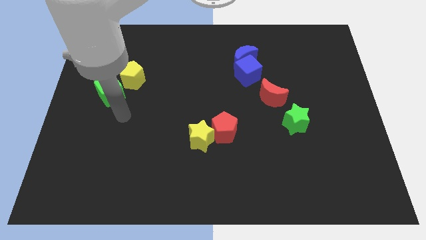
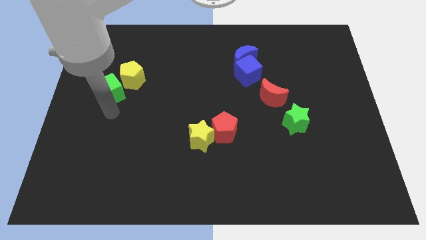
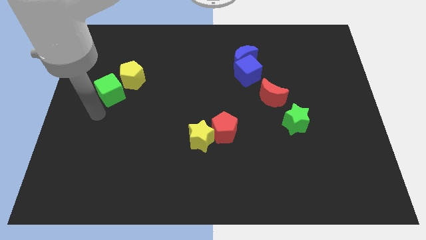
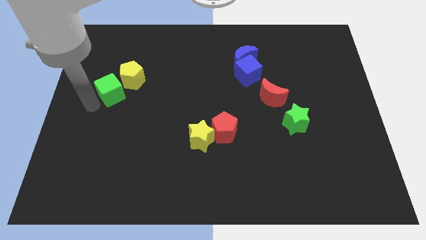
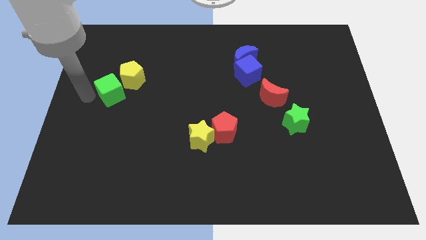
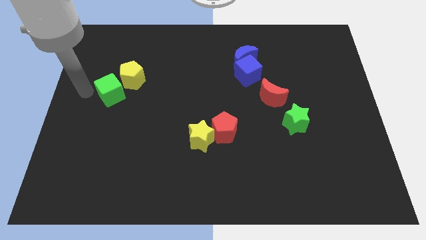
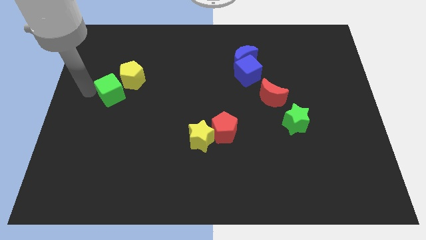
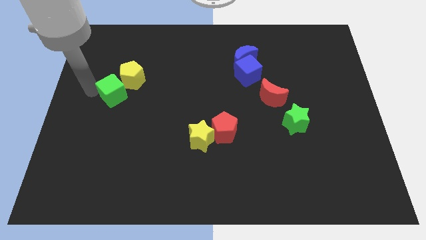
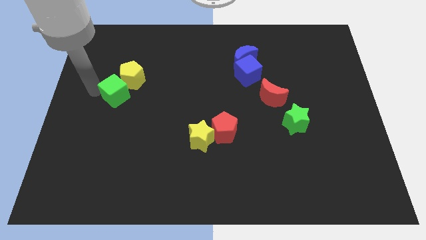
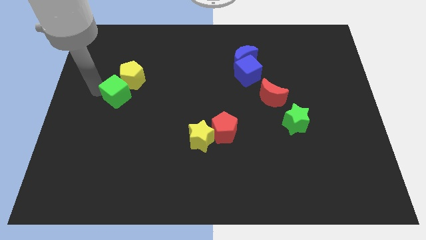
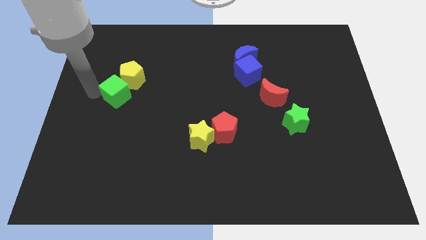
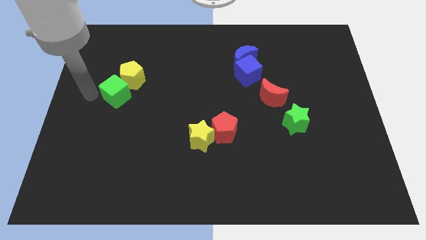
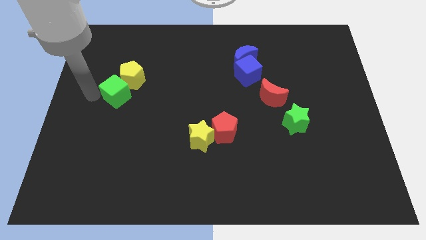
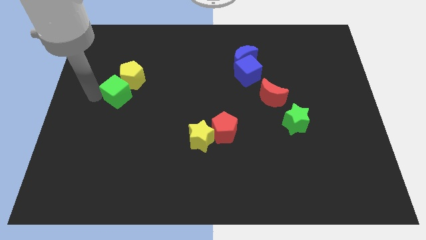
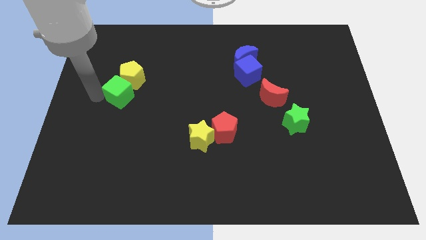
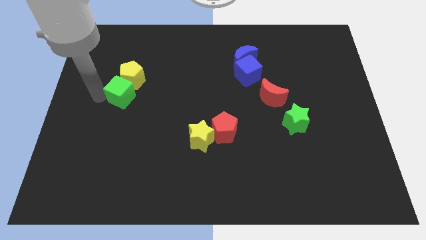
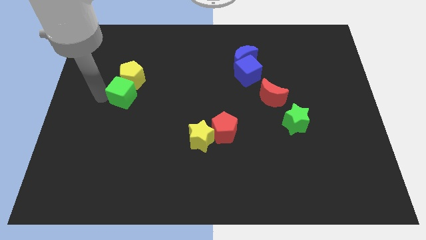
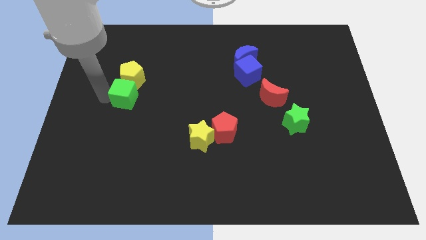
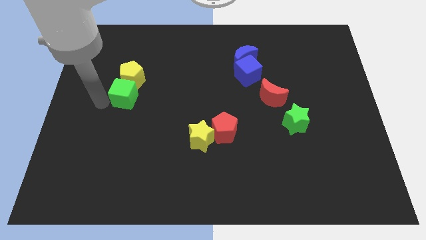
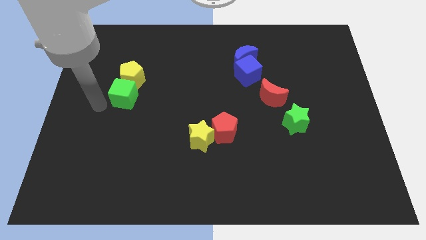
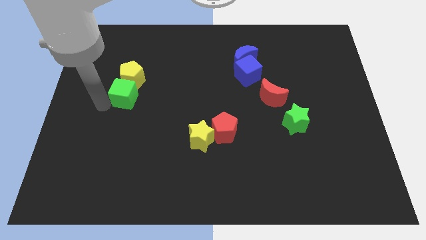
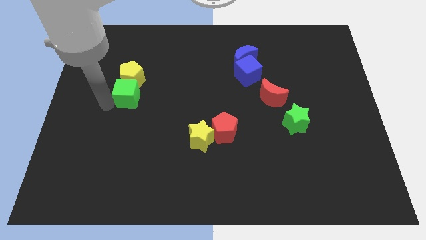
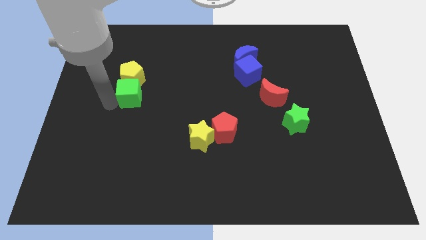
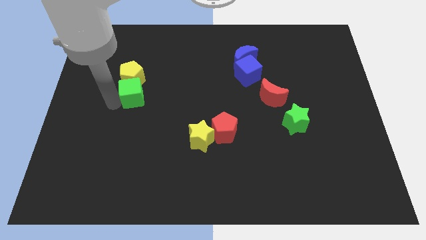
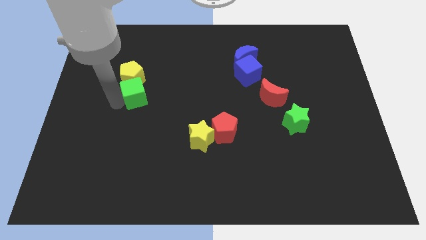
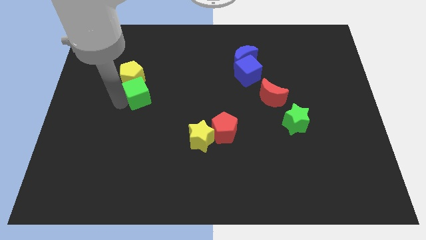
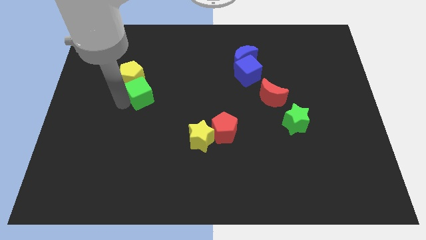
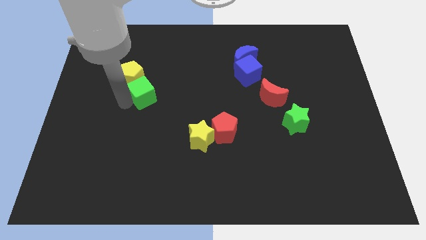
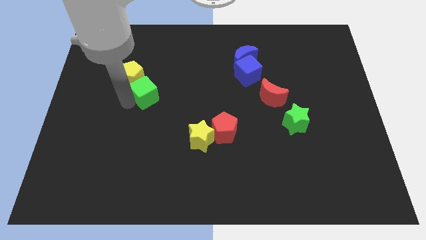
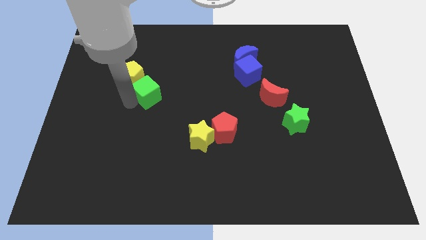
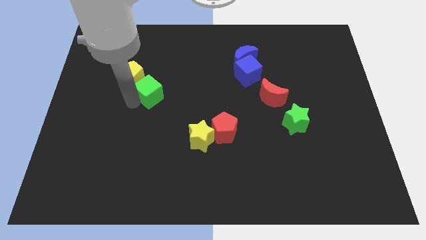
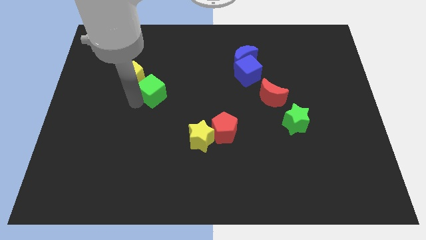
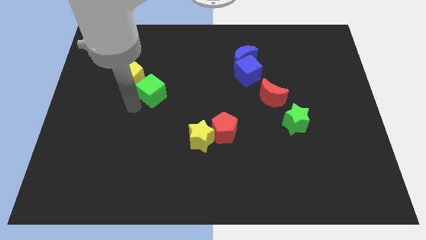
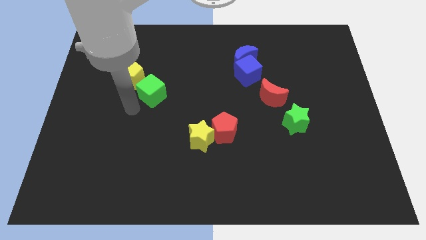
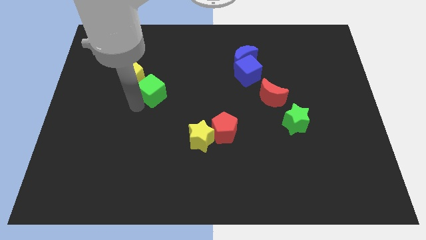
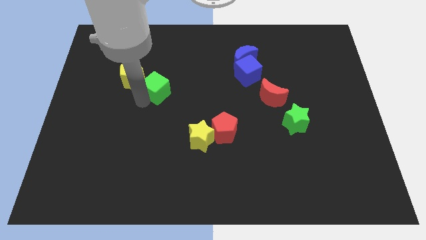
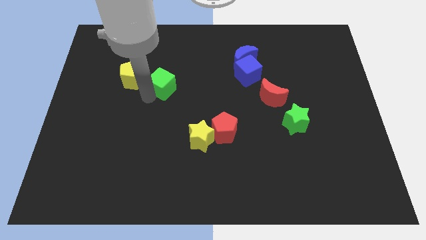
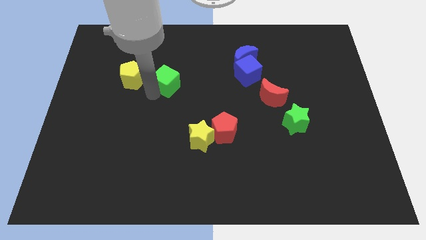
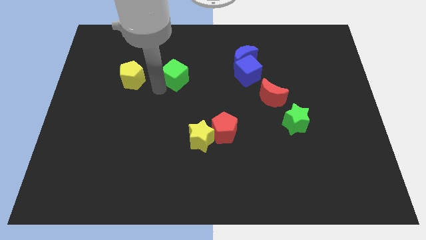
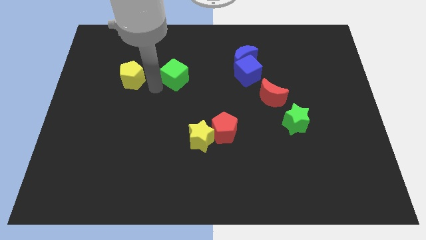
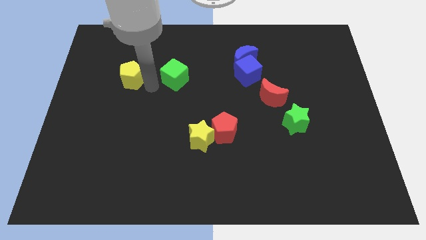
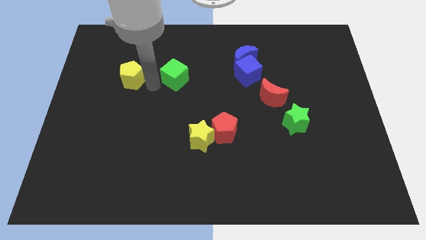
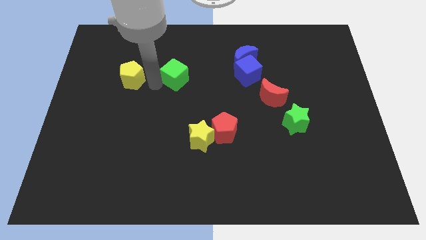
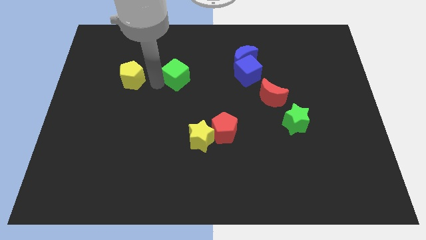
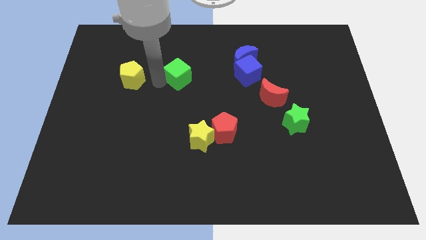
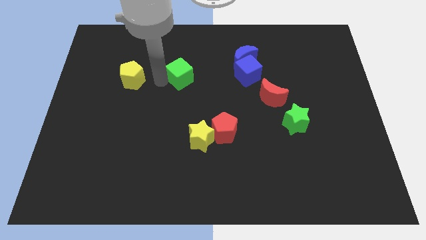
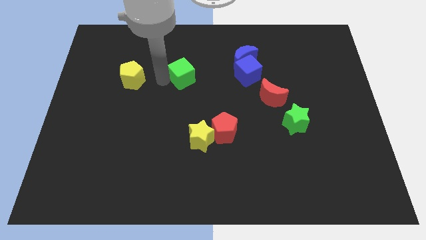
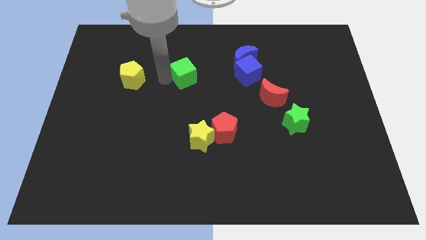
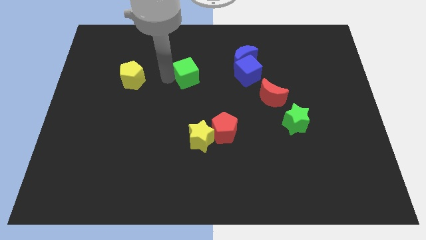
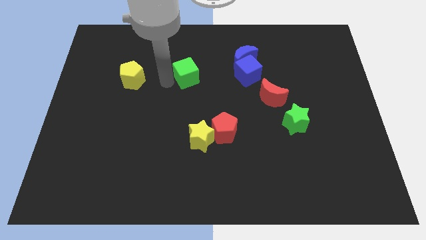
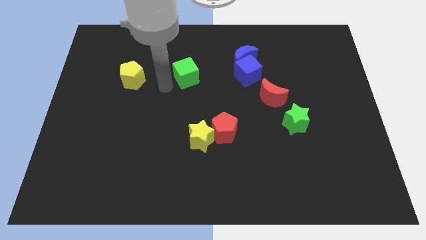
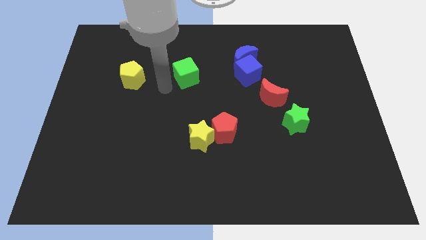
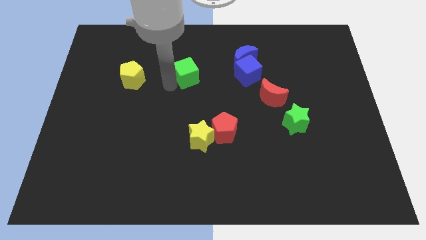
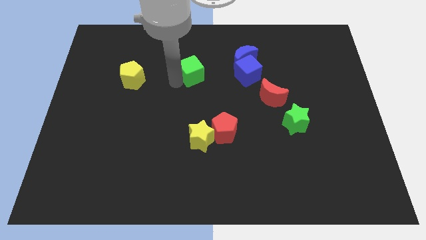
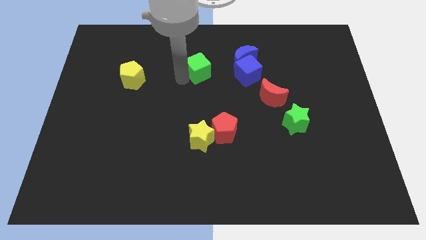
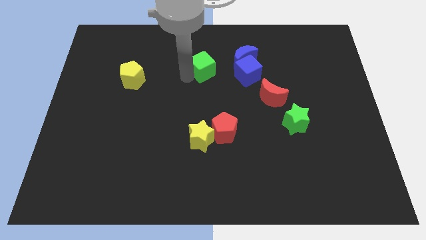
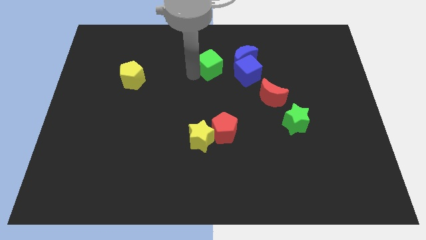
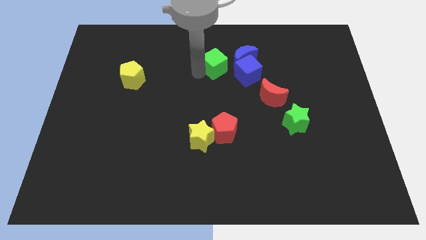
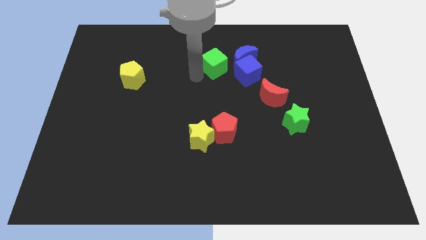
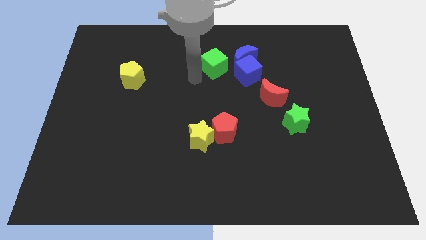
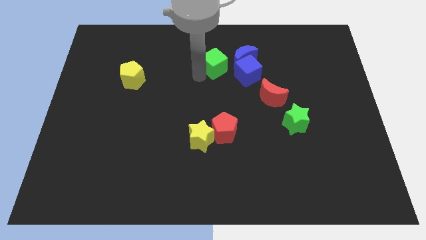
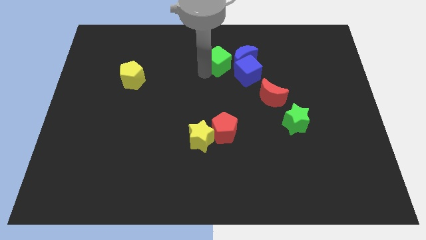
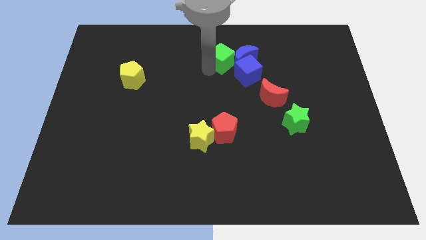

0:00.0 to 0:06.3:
move the green cube to the blue moon

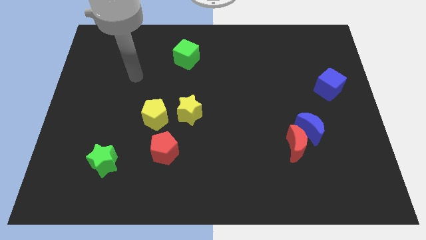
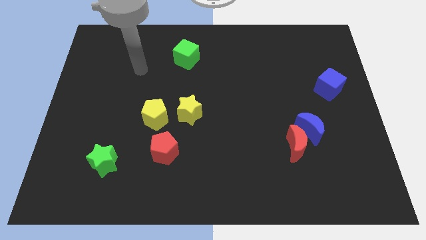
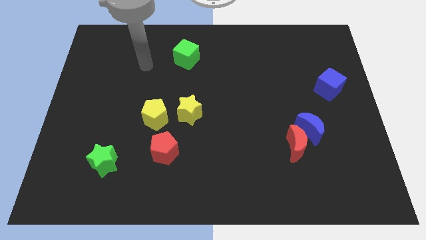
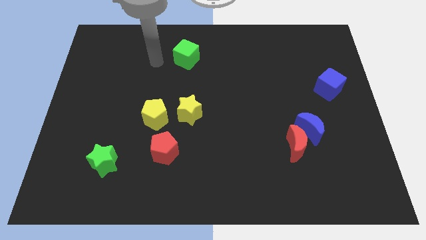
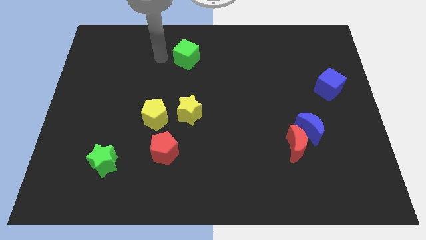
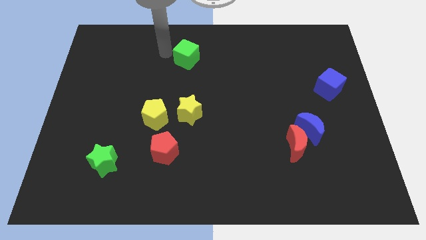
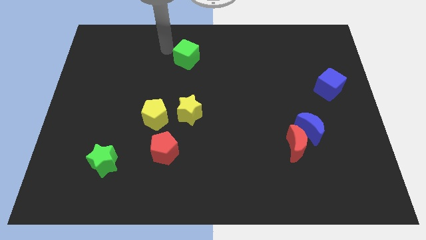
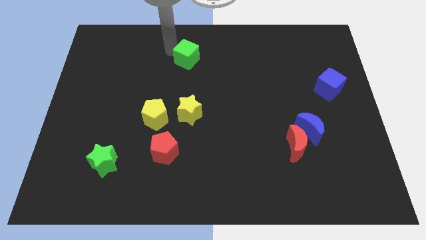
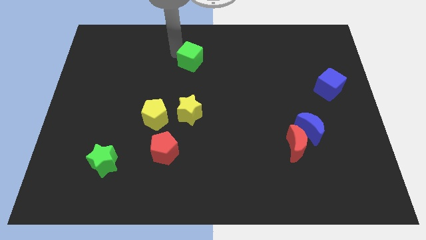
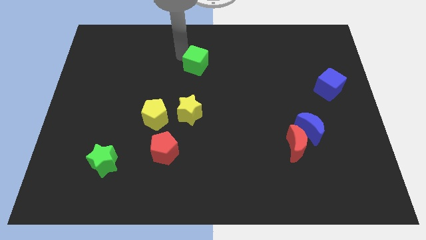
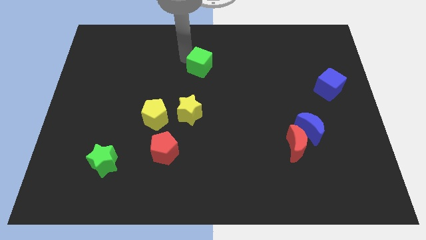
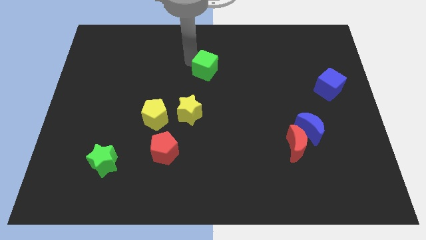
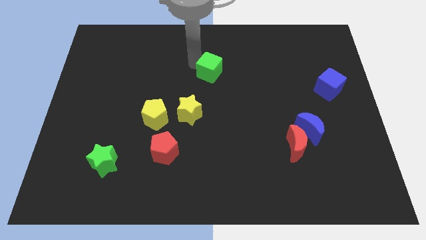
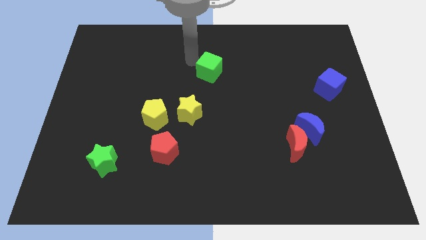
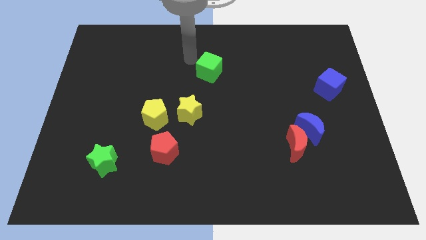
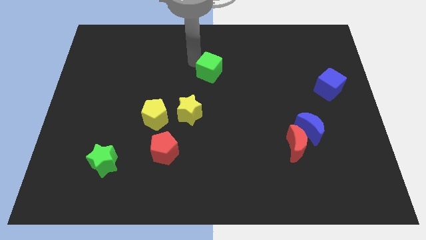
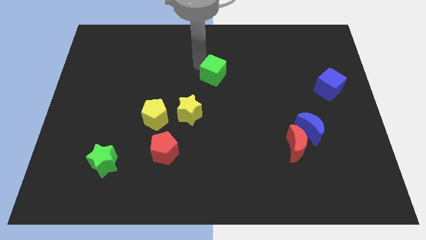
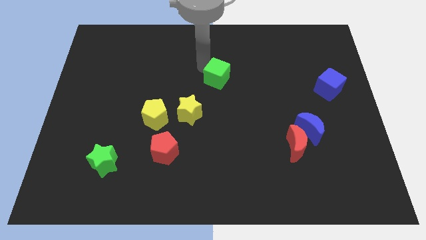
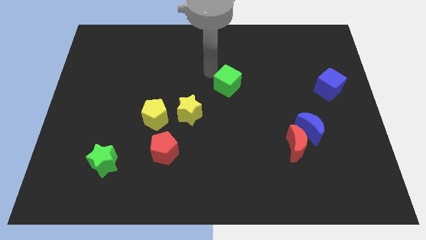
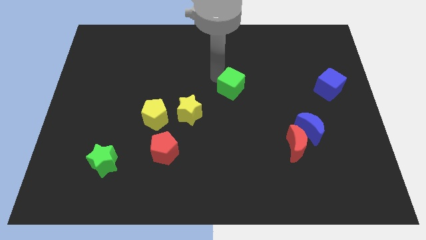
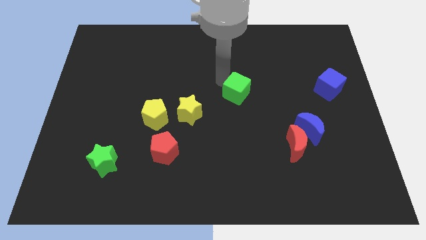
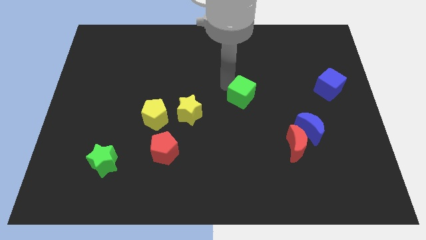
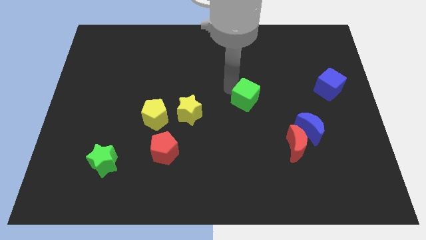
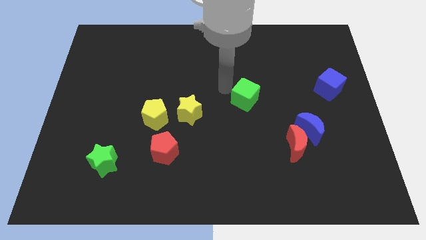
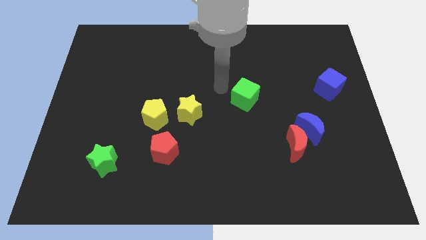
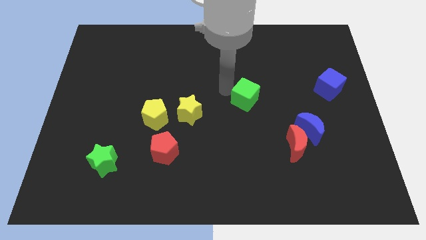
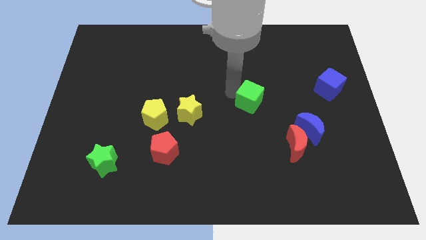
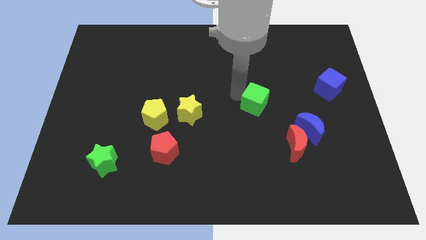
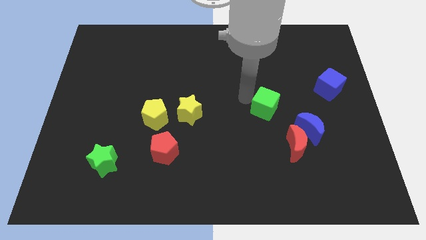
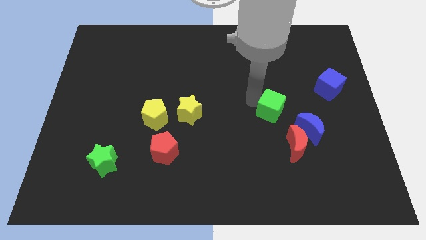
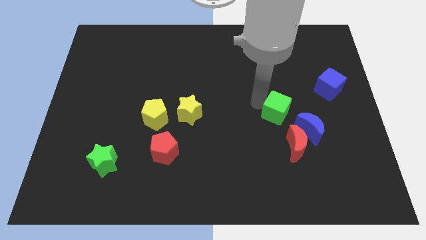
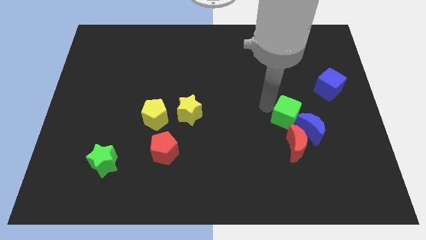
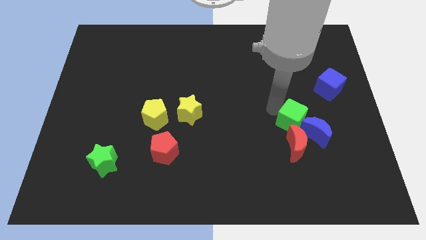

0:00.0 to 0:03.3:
put the green cube next to the blue moon
